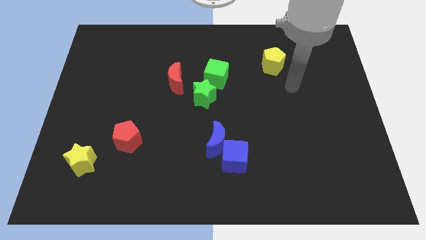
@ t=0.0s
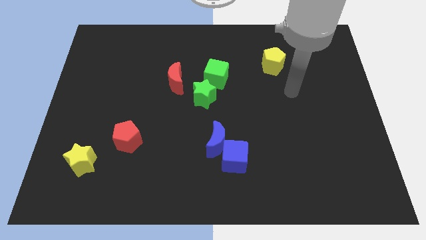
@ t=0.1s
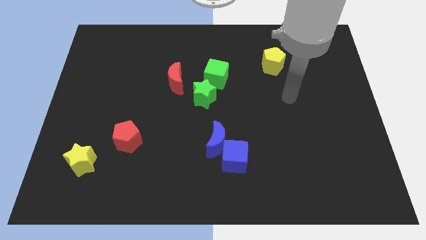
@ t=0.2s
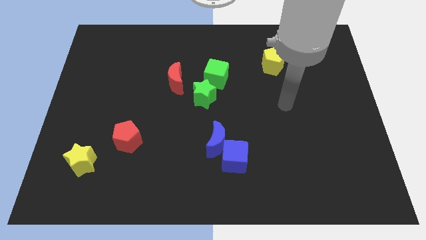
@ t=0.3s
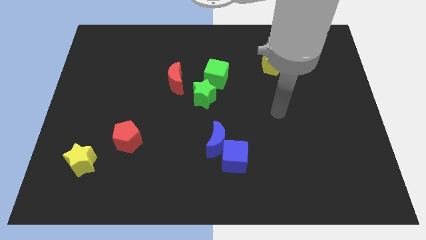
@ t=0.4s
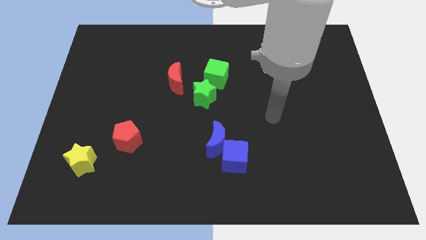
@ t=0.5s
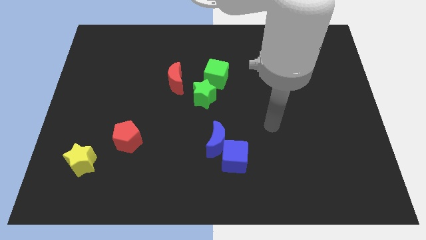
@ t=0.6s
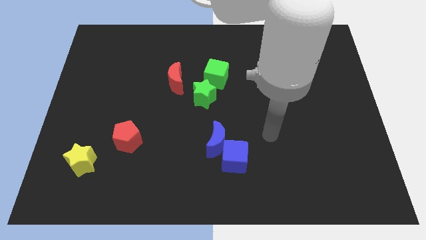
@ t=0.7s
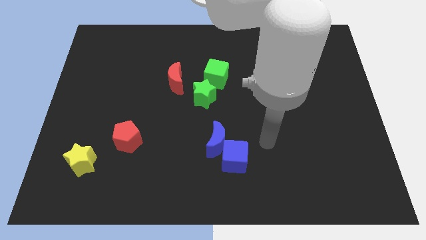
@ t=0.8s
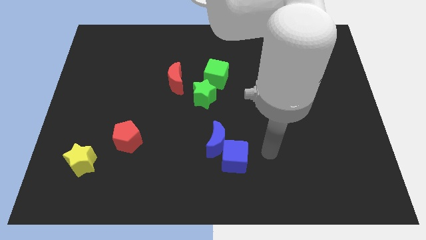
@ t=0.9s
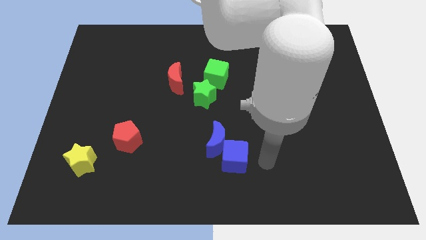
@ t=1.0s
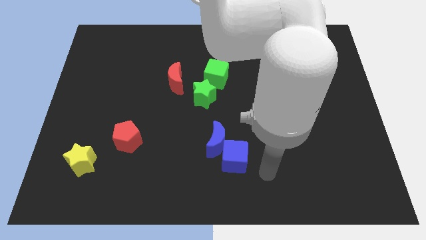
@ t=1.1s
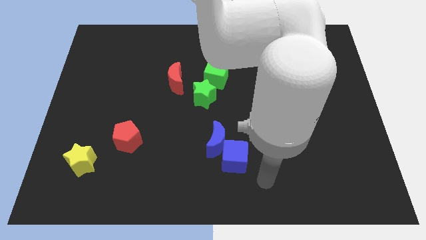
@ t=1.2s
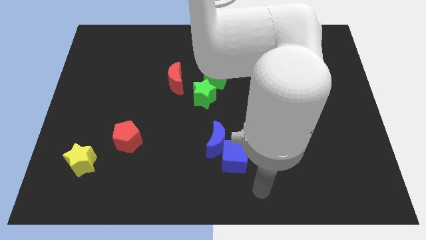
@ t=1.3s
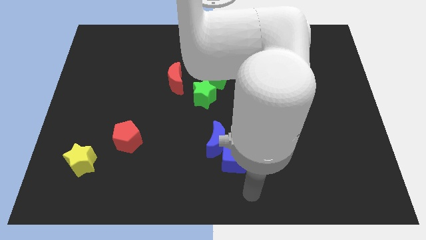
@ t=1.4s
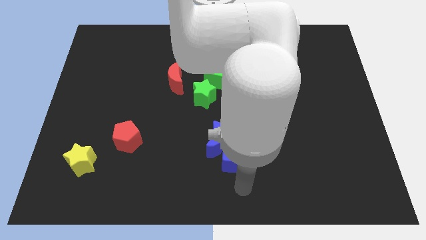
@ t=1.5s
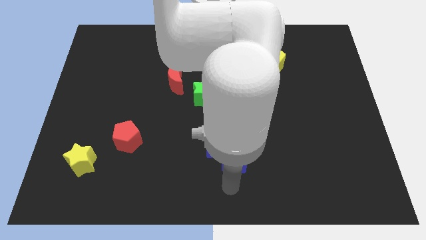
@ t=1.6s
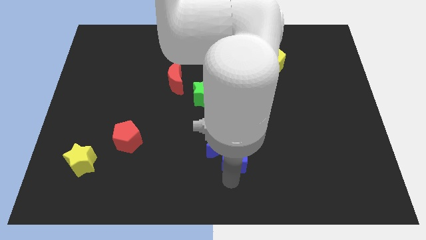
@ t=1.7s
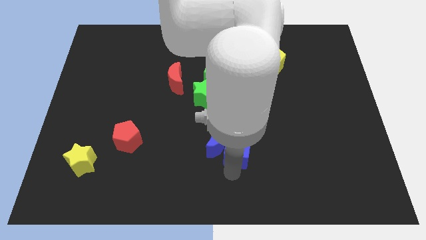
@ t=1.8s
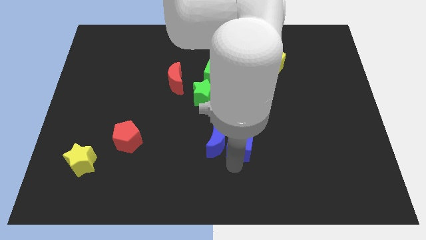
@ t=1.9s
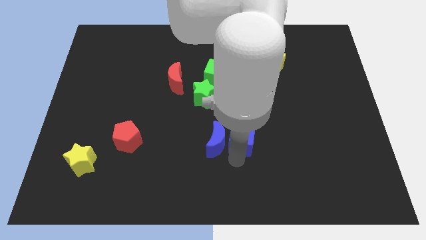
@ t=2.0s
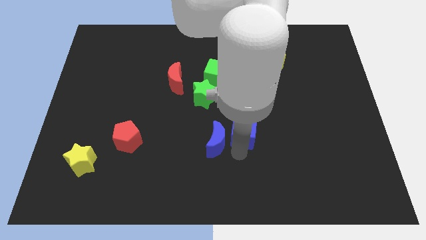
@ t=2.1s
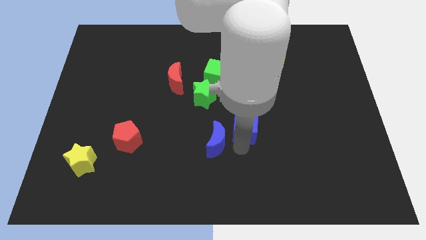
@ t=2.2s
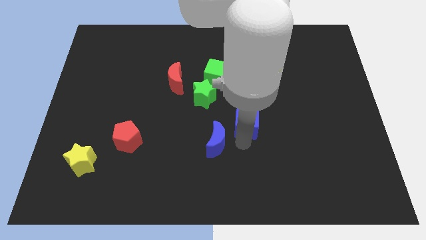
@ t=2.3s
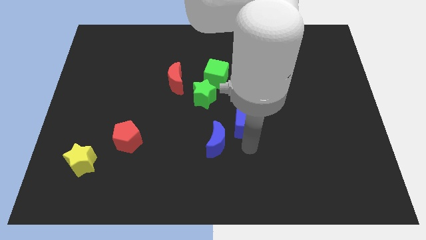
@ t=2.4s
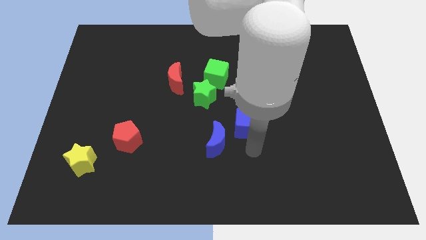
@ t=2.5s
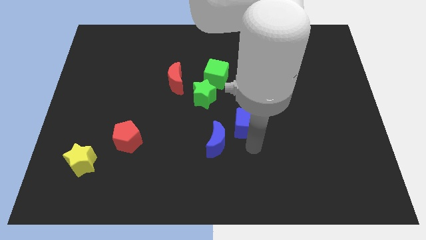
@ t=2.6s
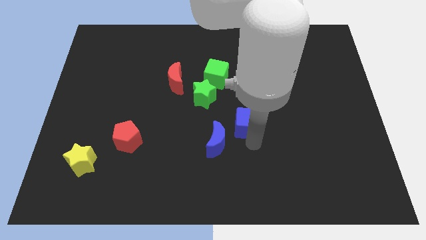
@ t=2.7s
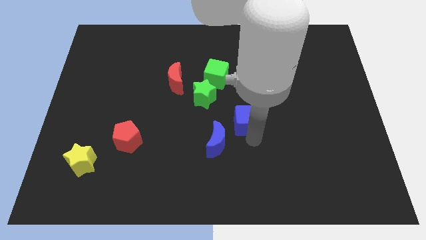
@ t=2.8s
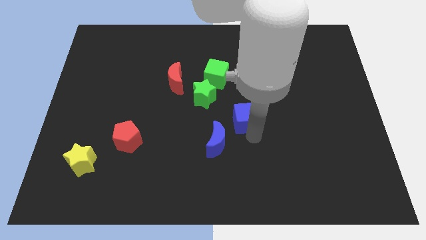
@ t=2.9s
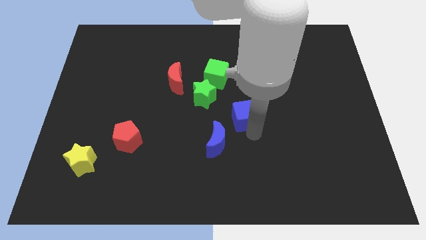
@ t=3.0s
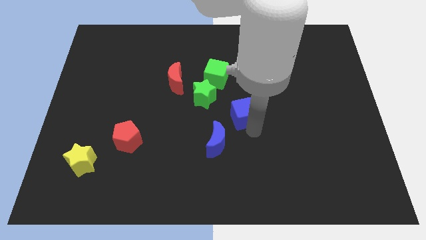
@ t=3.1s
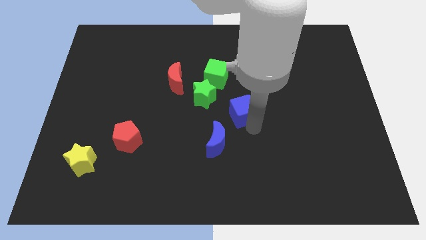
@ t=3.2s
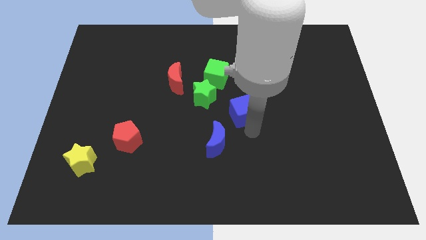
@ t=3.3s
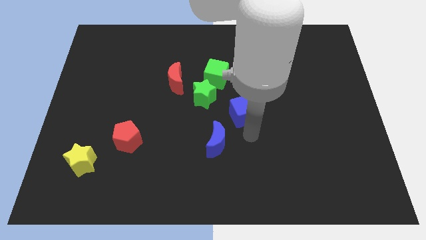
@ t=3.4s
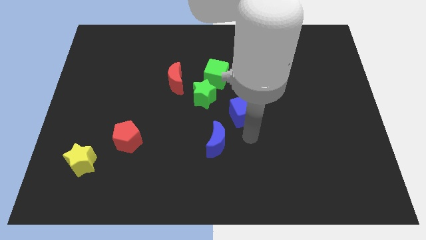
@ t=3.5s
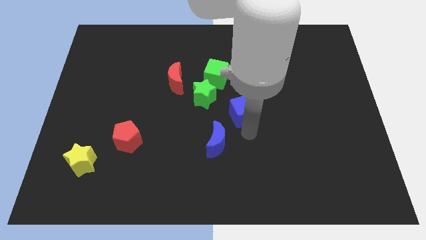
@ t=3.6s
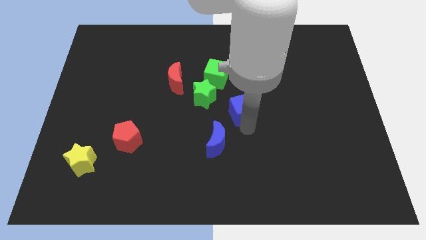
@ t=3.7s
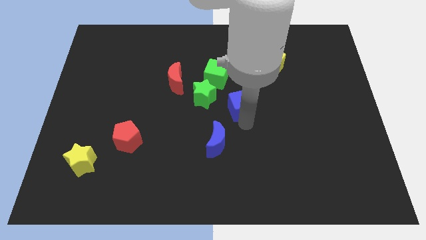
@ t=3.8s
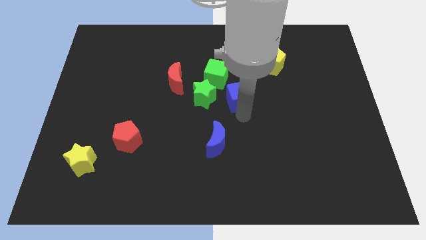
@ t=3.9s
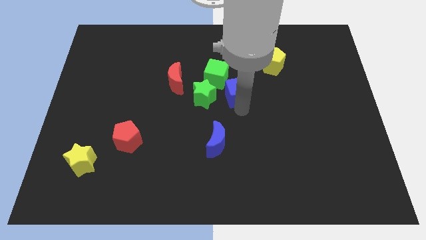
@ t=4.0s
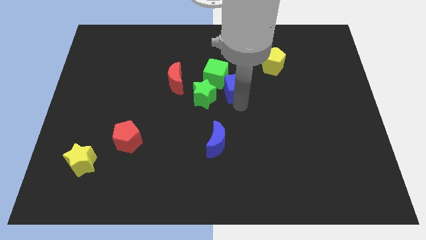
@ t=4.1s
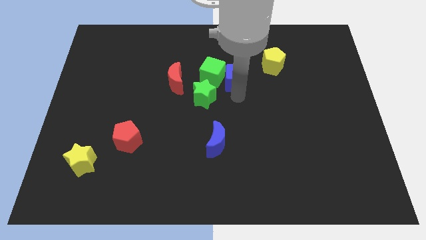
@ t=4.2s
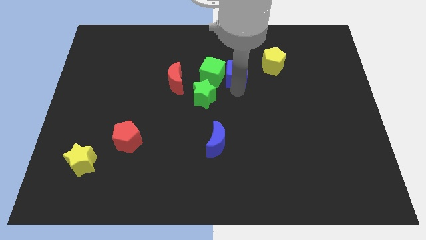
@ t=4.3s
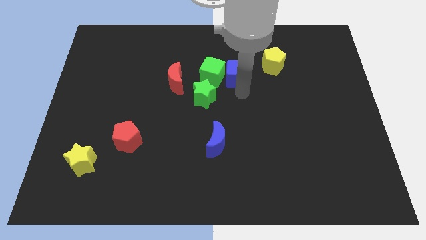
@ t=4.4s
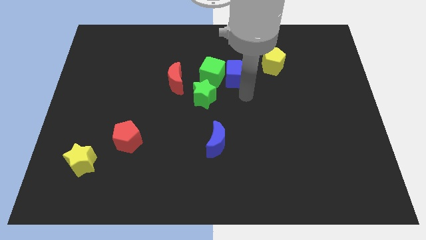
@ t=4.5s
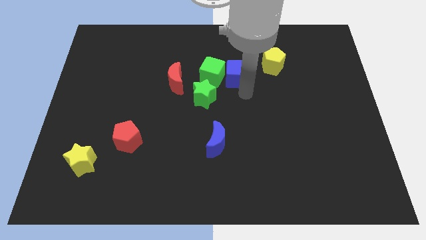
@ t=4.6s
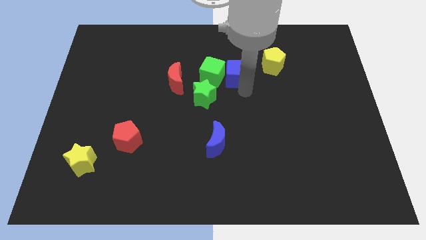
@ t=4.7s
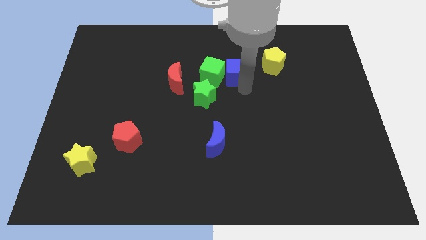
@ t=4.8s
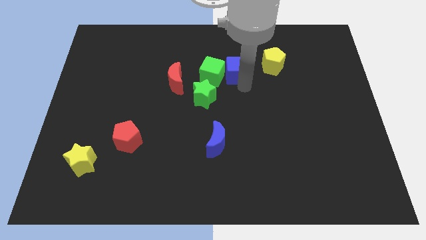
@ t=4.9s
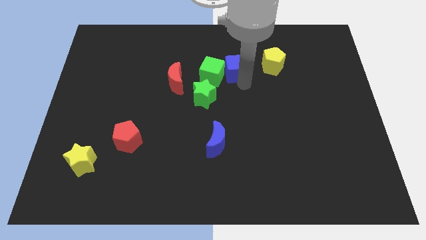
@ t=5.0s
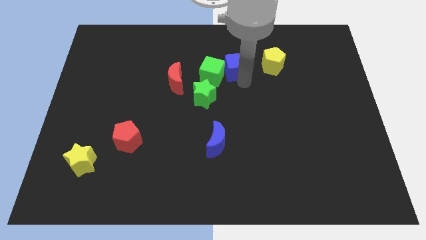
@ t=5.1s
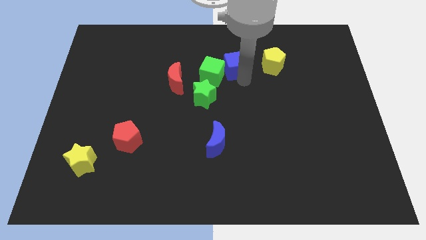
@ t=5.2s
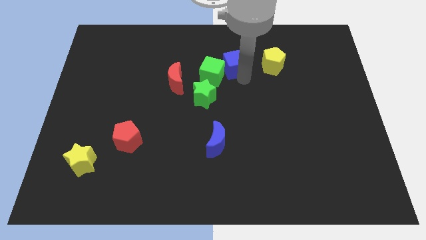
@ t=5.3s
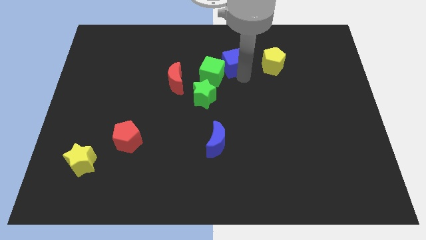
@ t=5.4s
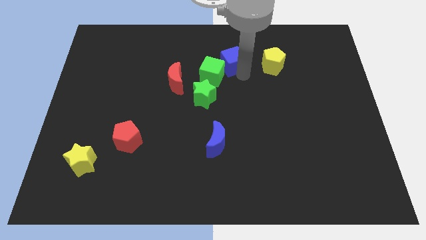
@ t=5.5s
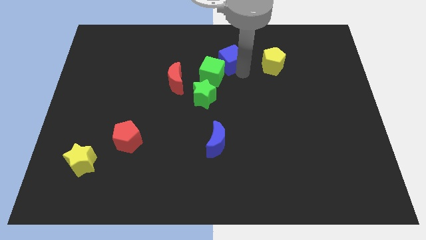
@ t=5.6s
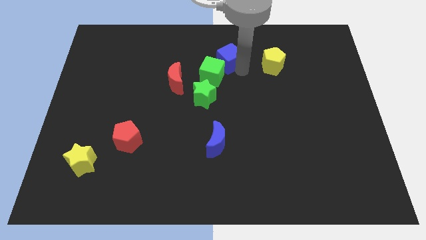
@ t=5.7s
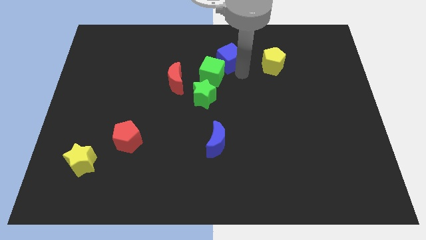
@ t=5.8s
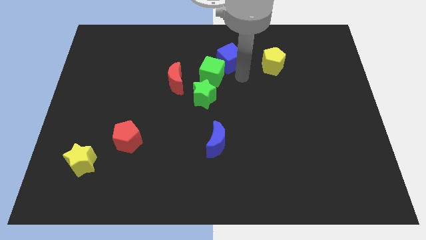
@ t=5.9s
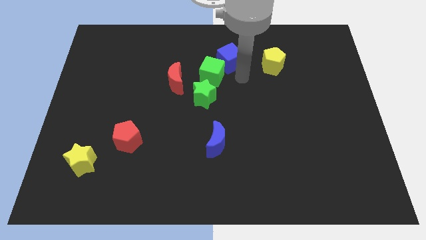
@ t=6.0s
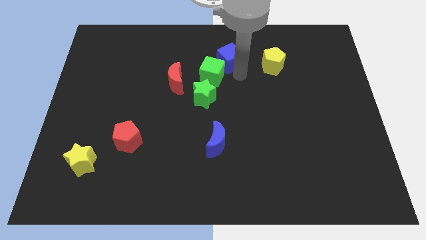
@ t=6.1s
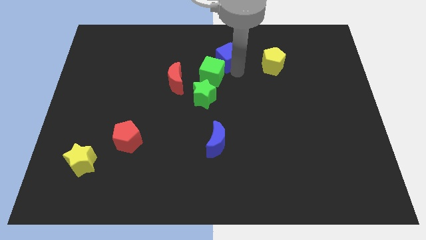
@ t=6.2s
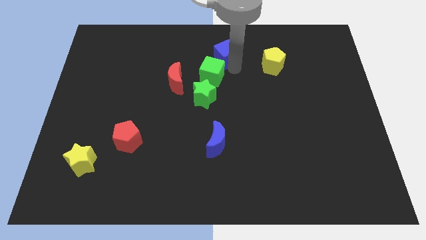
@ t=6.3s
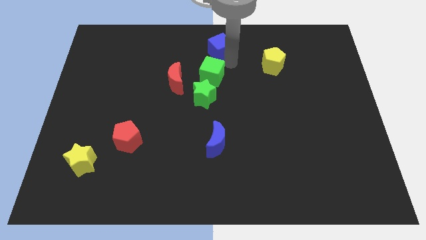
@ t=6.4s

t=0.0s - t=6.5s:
push the blue cube to the towards your base
